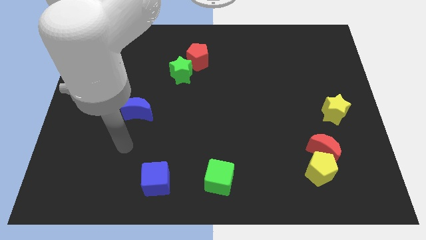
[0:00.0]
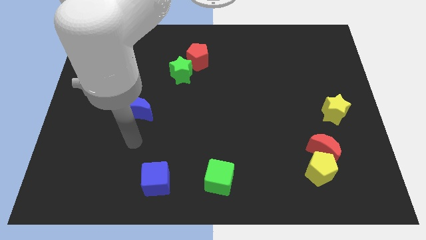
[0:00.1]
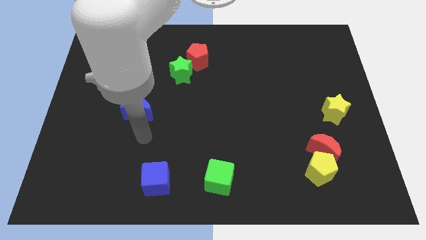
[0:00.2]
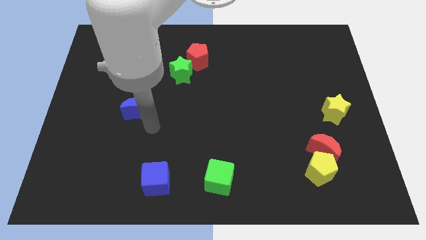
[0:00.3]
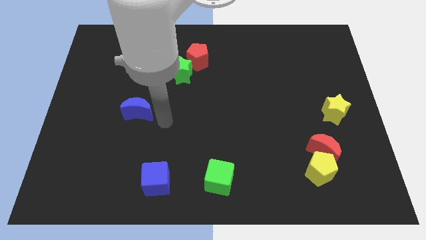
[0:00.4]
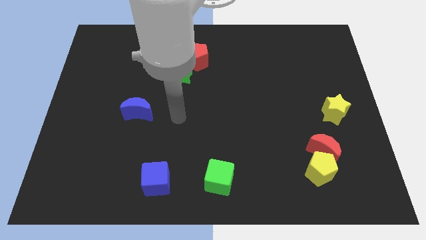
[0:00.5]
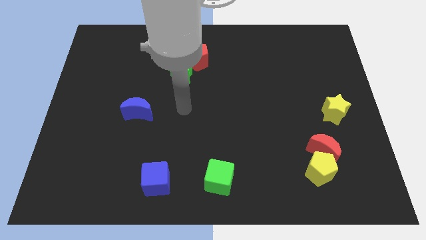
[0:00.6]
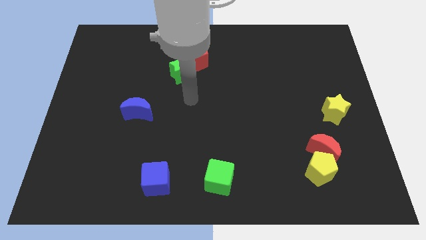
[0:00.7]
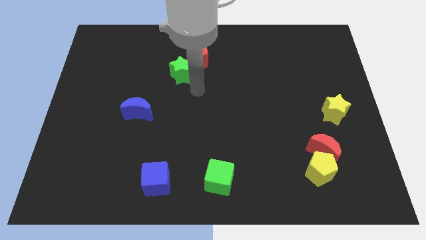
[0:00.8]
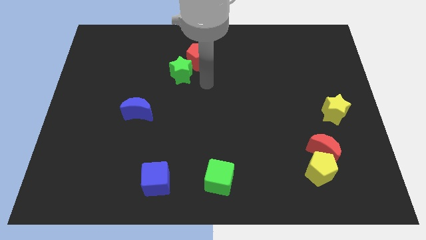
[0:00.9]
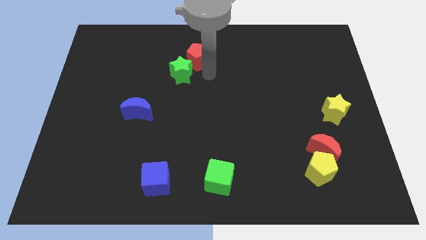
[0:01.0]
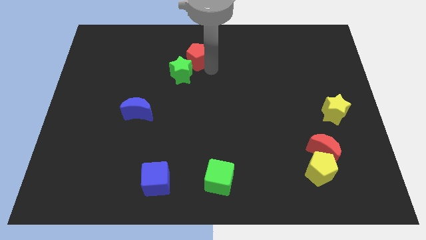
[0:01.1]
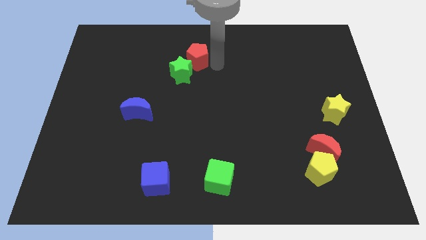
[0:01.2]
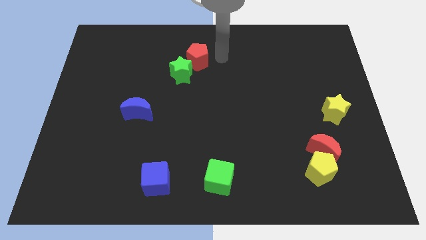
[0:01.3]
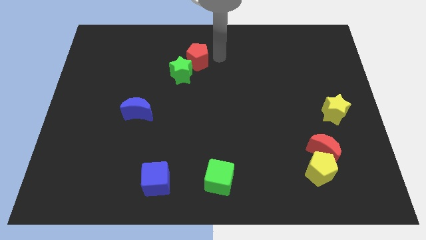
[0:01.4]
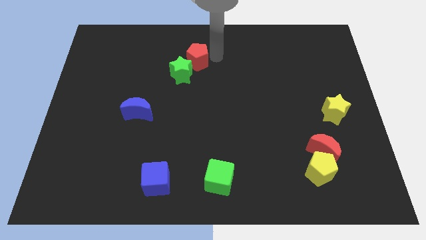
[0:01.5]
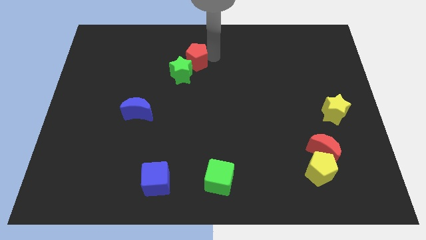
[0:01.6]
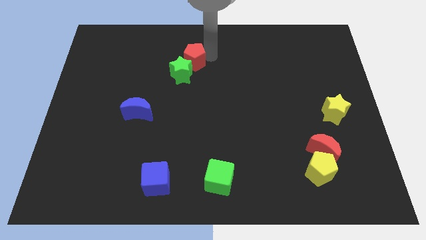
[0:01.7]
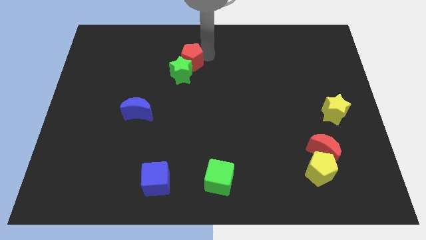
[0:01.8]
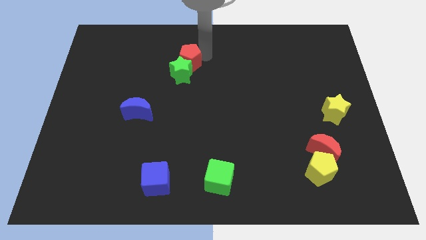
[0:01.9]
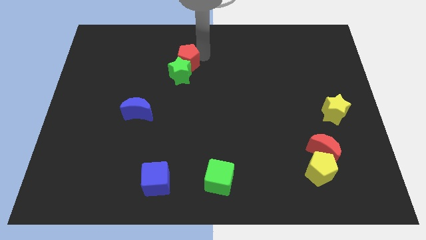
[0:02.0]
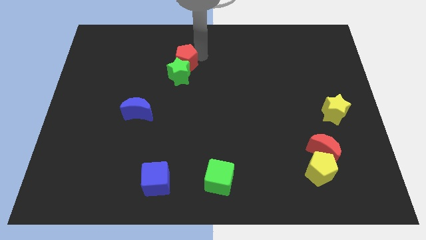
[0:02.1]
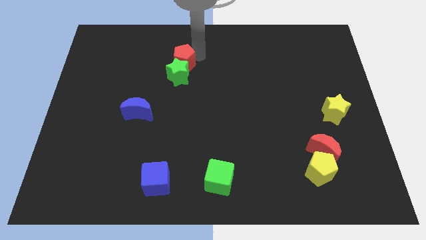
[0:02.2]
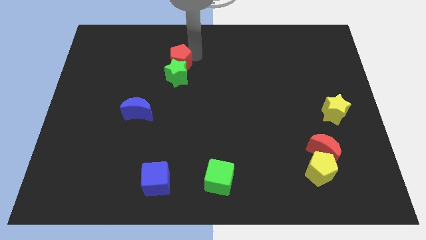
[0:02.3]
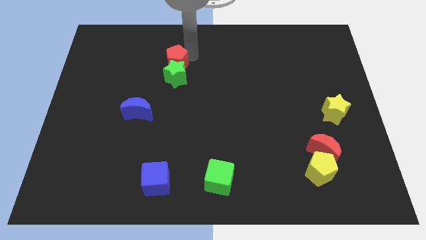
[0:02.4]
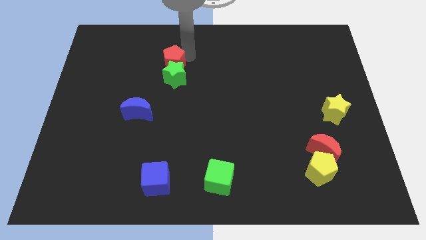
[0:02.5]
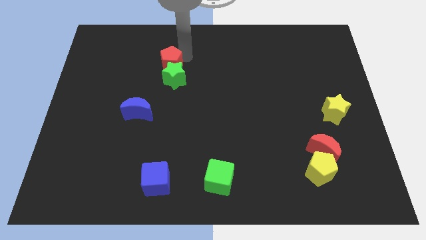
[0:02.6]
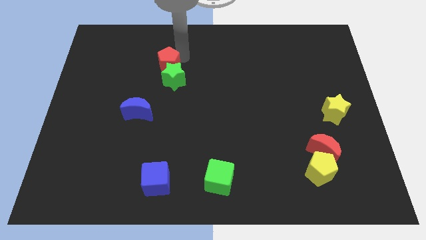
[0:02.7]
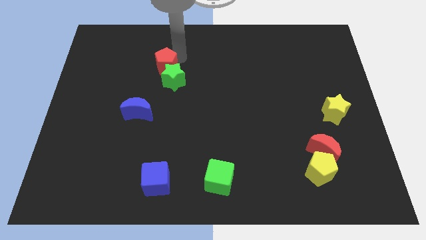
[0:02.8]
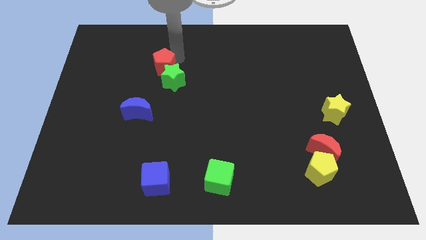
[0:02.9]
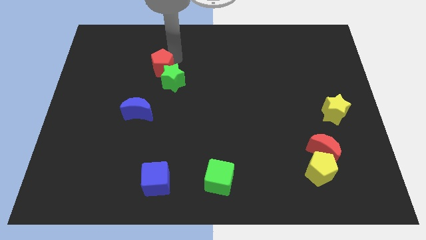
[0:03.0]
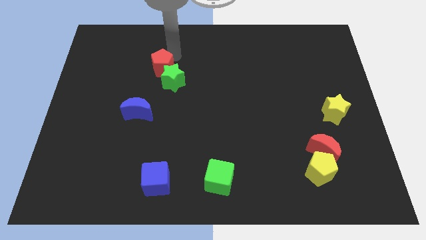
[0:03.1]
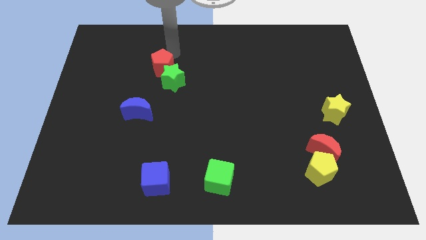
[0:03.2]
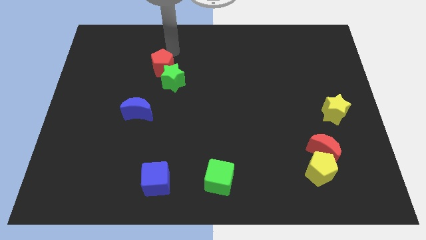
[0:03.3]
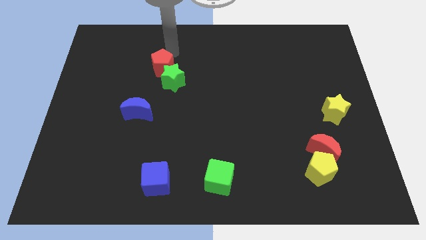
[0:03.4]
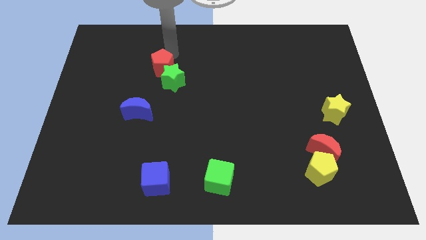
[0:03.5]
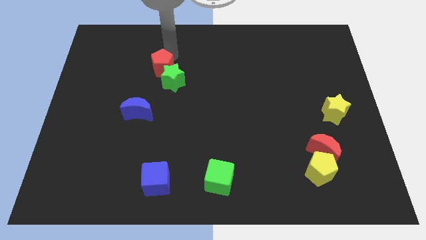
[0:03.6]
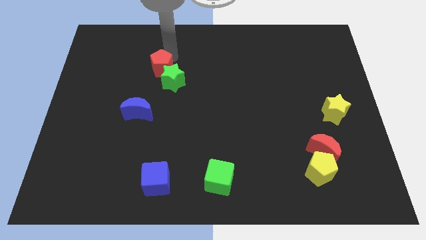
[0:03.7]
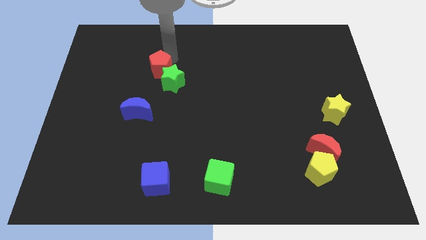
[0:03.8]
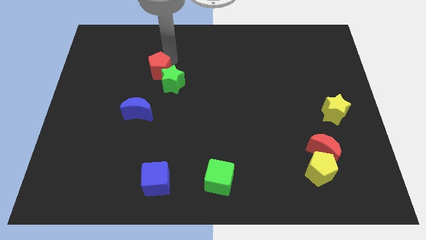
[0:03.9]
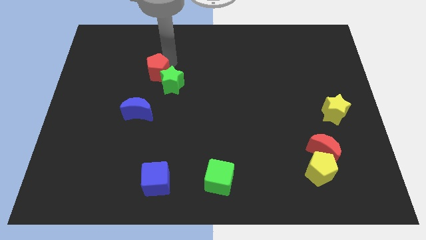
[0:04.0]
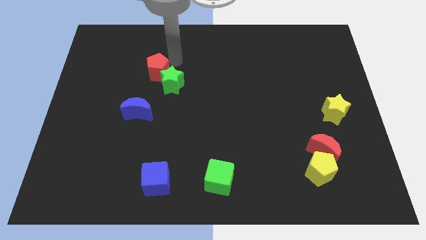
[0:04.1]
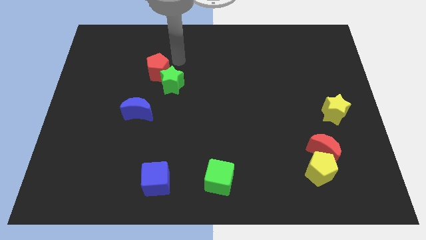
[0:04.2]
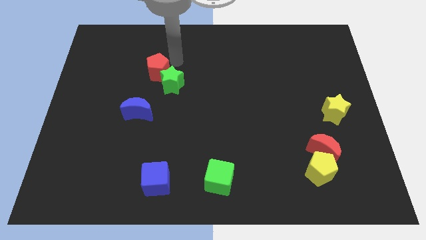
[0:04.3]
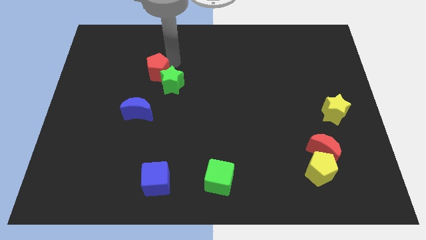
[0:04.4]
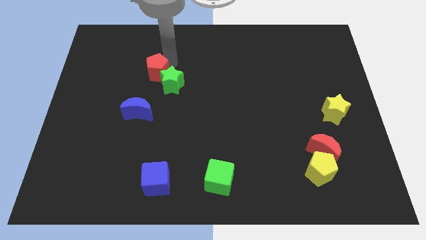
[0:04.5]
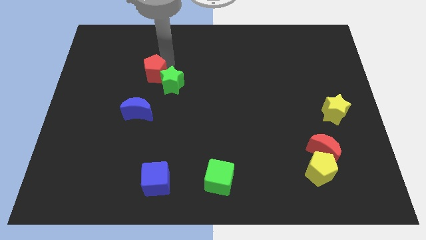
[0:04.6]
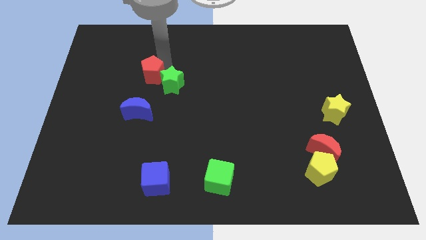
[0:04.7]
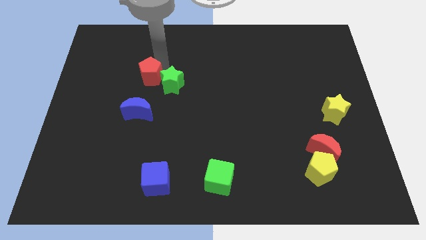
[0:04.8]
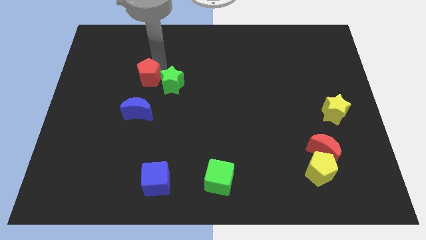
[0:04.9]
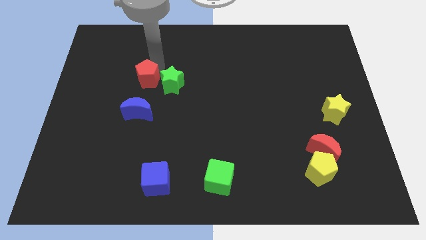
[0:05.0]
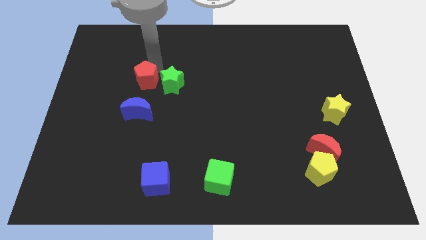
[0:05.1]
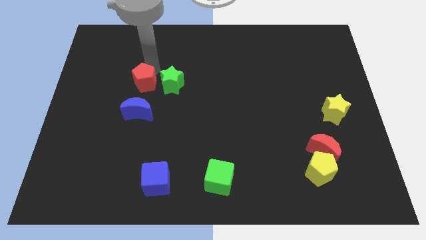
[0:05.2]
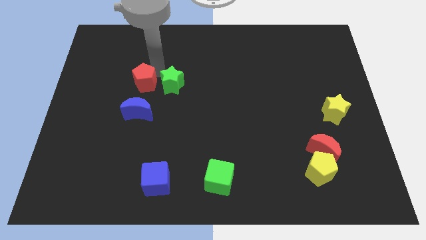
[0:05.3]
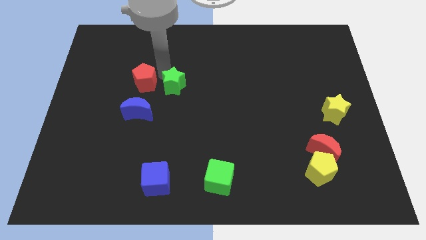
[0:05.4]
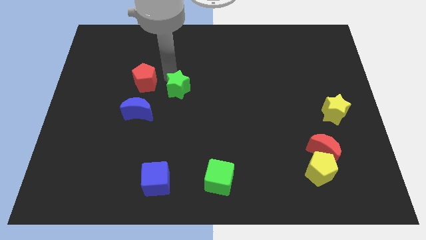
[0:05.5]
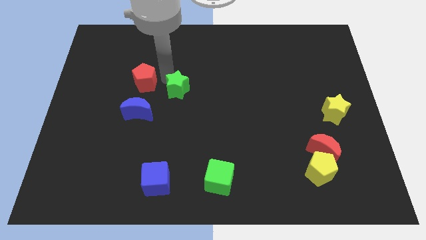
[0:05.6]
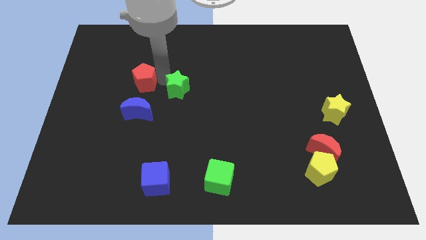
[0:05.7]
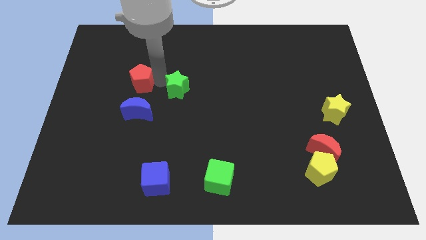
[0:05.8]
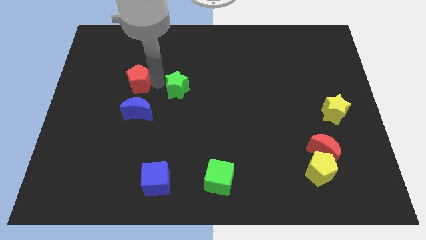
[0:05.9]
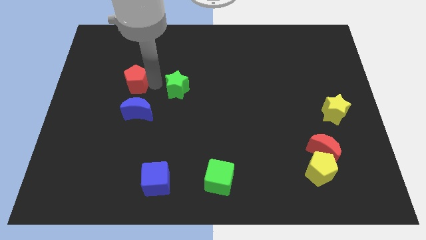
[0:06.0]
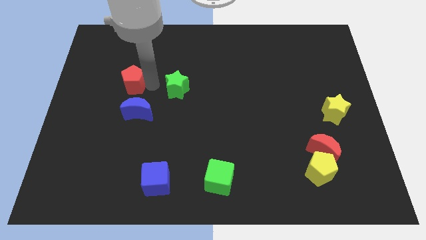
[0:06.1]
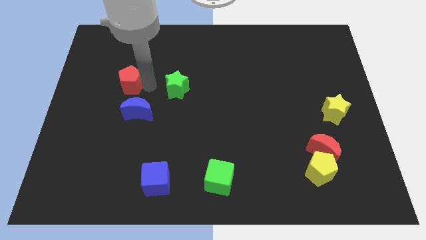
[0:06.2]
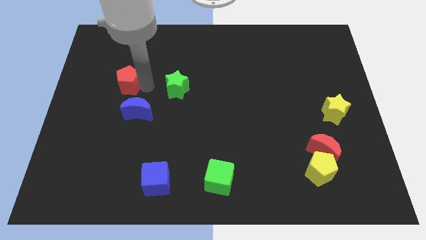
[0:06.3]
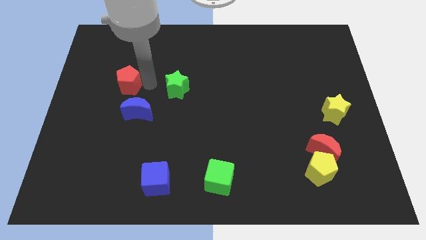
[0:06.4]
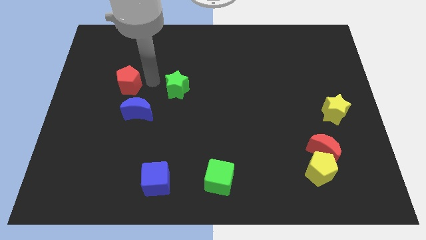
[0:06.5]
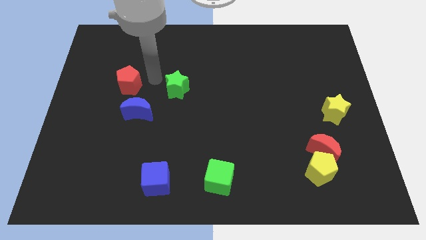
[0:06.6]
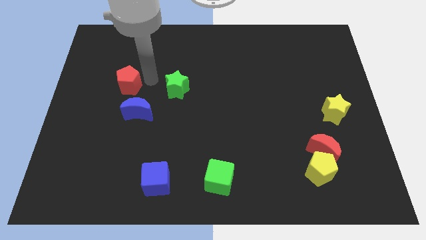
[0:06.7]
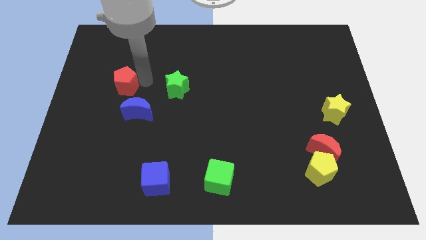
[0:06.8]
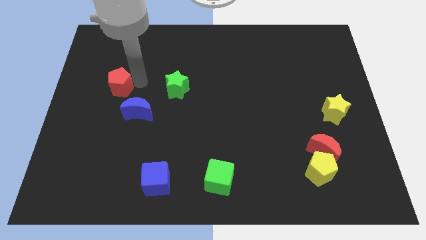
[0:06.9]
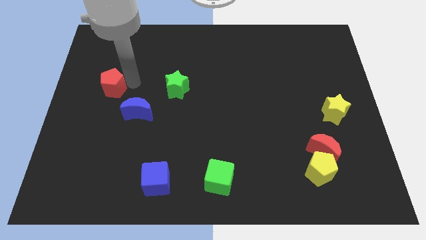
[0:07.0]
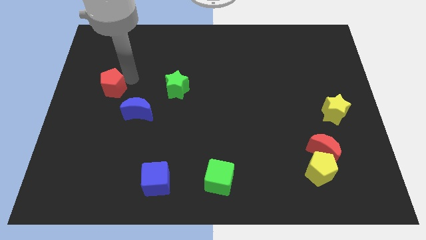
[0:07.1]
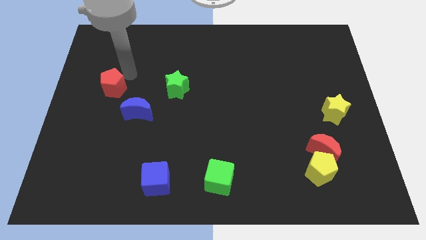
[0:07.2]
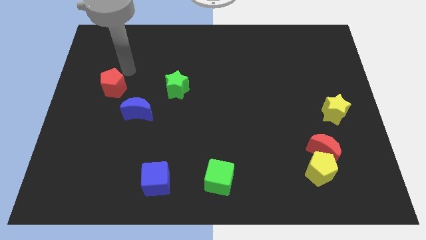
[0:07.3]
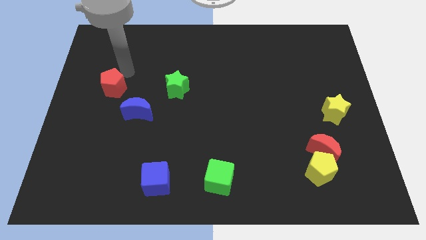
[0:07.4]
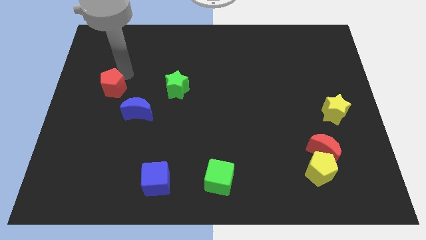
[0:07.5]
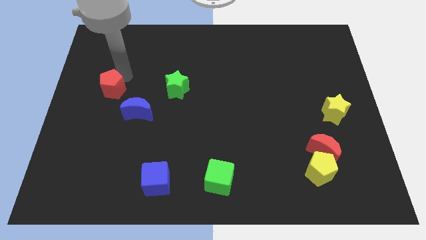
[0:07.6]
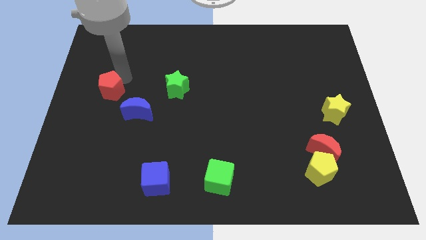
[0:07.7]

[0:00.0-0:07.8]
slide the red pentagon down and to the left
